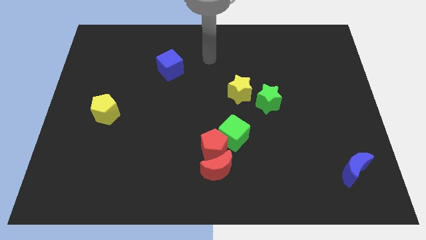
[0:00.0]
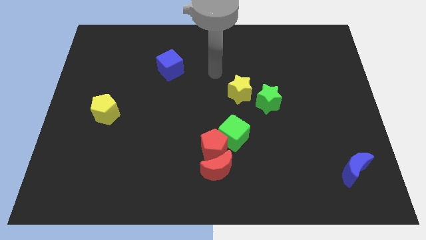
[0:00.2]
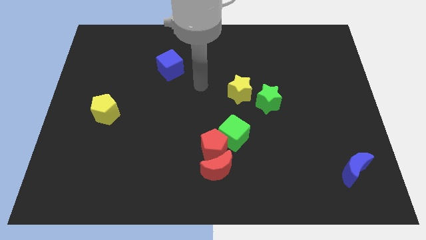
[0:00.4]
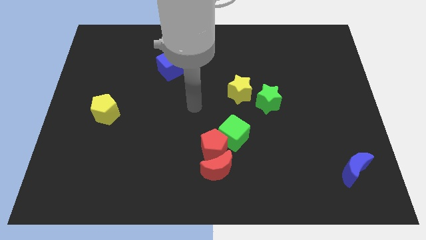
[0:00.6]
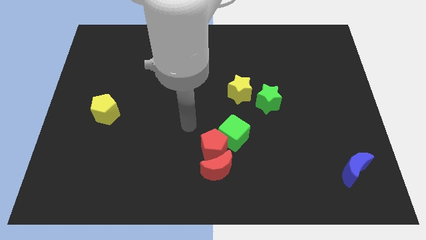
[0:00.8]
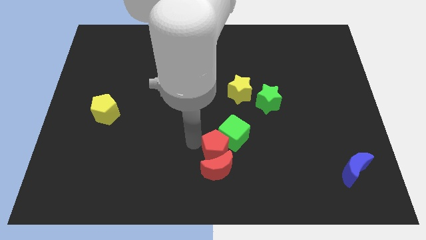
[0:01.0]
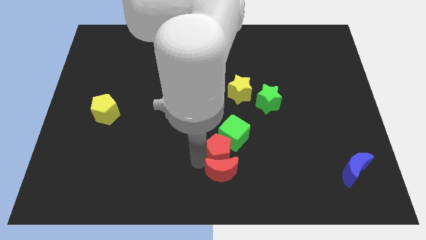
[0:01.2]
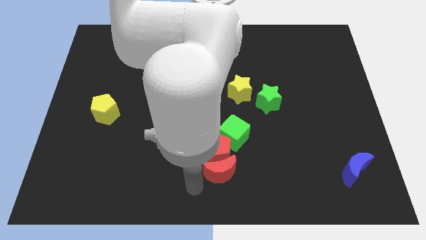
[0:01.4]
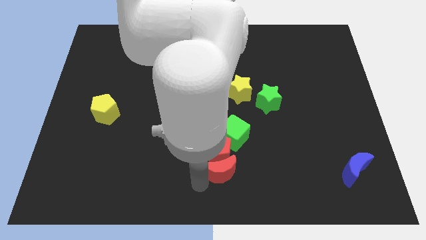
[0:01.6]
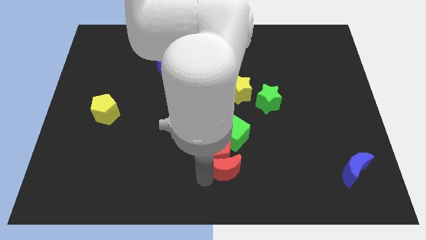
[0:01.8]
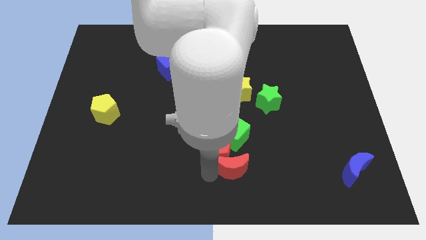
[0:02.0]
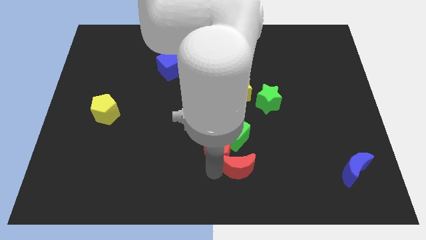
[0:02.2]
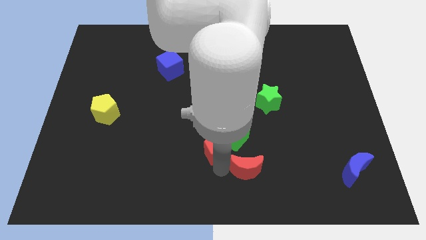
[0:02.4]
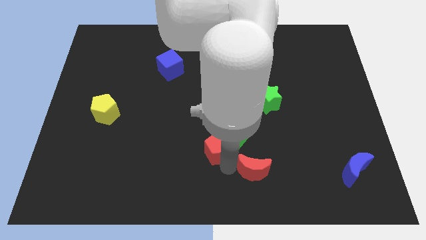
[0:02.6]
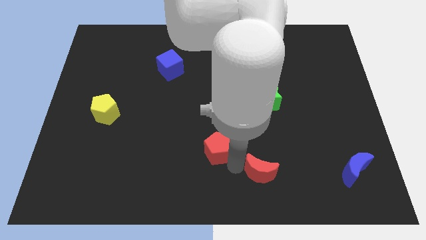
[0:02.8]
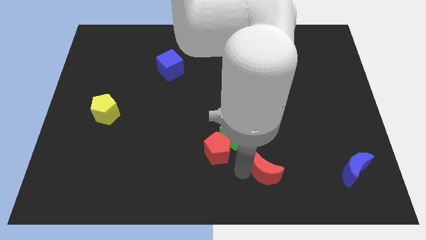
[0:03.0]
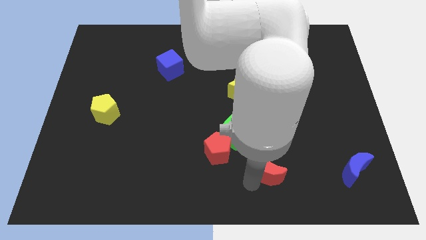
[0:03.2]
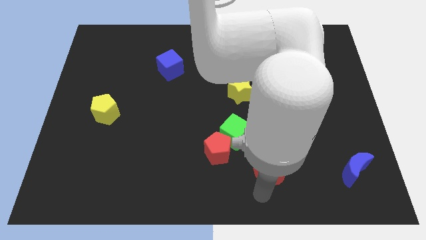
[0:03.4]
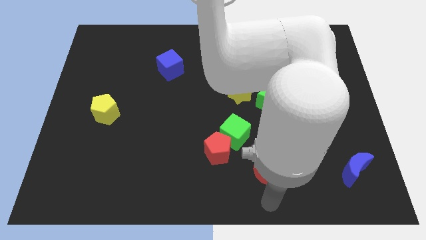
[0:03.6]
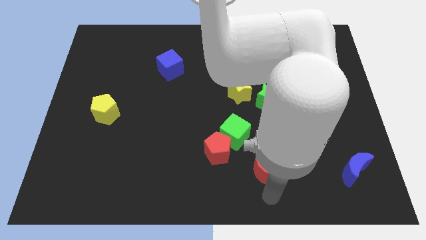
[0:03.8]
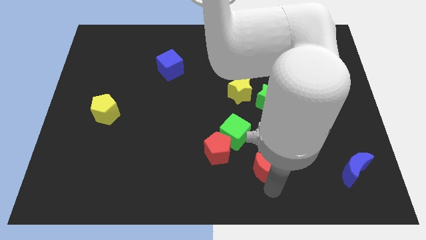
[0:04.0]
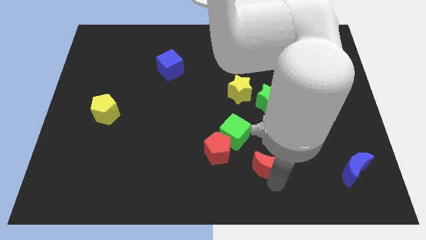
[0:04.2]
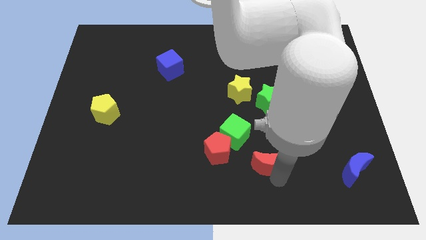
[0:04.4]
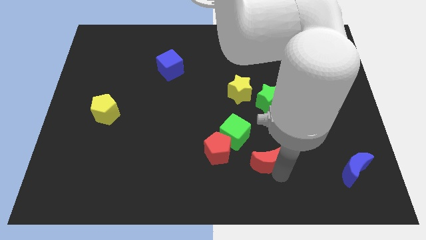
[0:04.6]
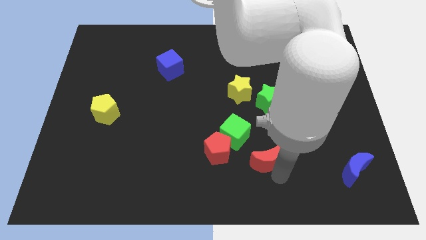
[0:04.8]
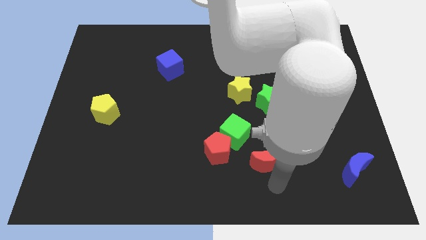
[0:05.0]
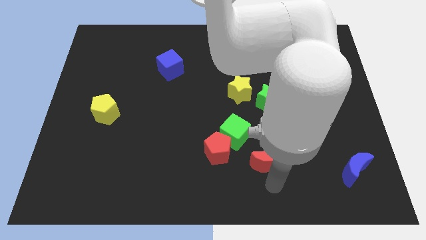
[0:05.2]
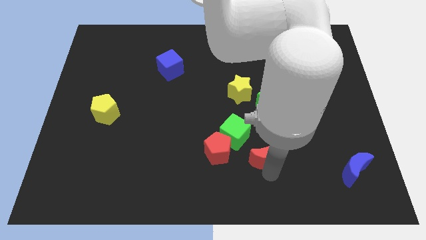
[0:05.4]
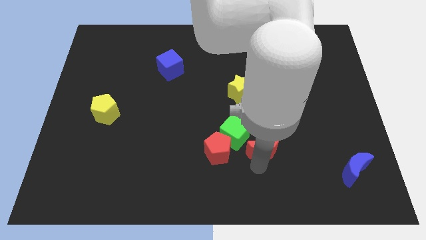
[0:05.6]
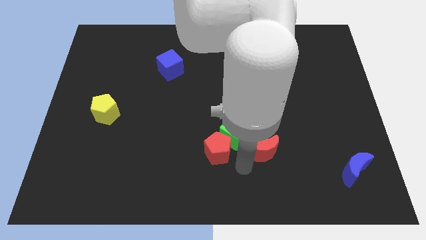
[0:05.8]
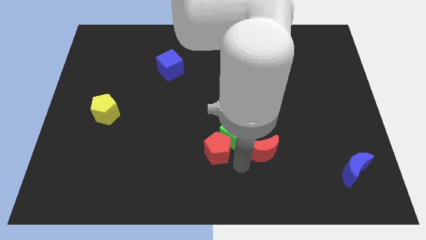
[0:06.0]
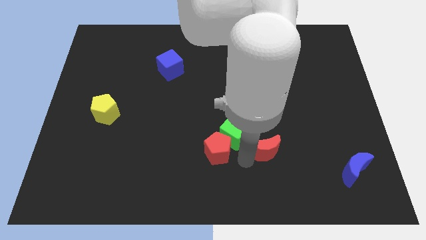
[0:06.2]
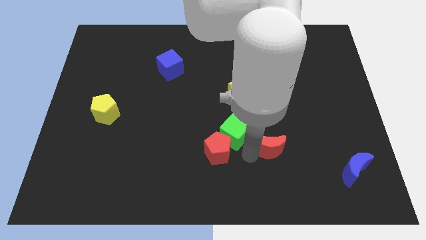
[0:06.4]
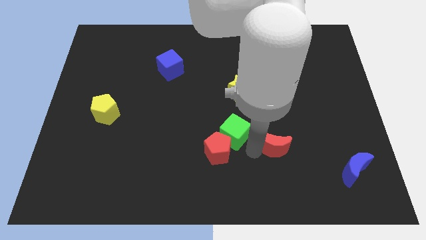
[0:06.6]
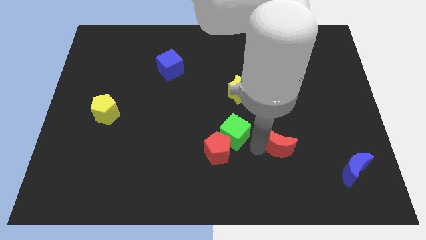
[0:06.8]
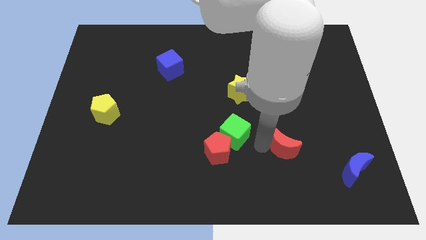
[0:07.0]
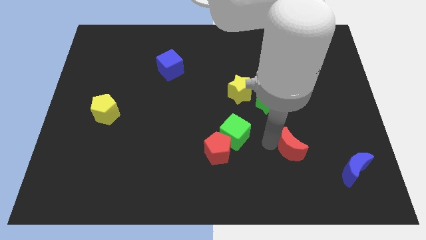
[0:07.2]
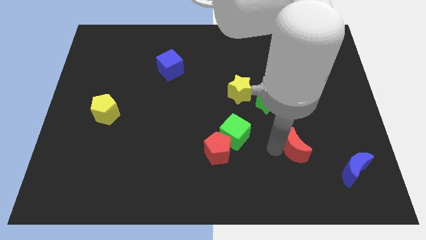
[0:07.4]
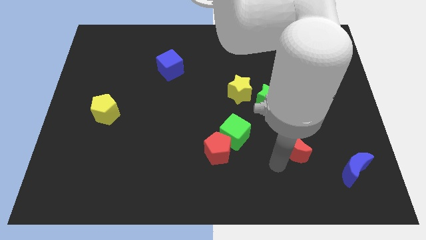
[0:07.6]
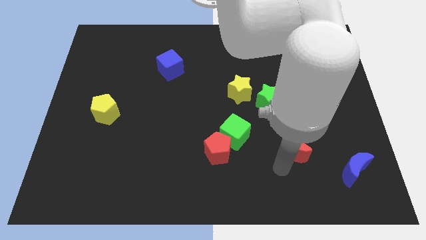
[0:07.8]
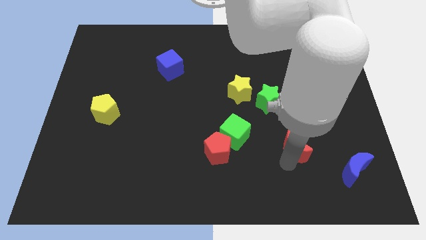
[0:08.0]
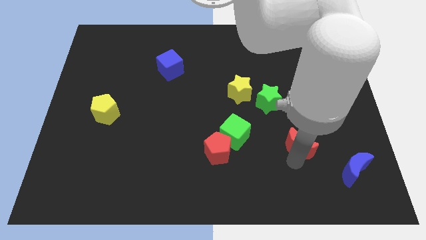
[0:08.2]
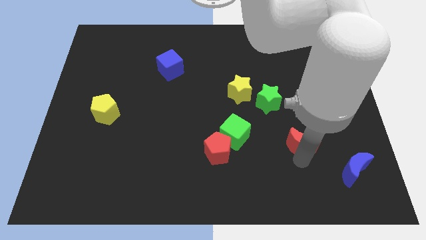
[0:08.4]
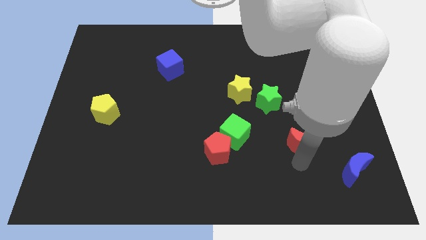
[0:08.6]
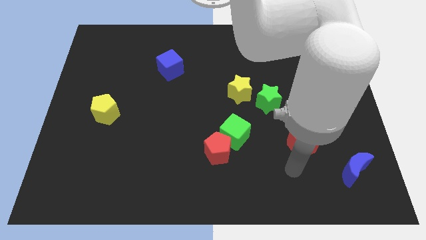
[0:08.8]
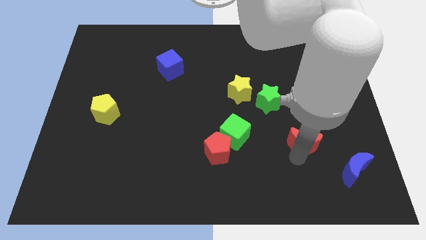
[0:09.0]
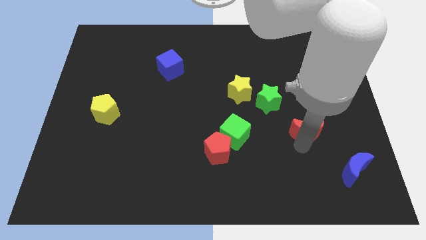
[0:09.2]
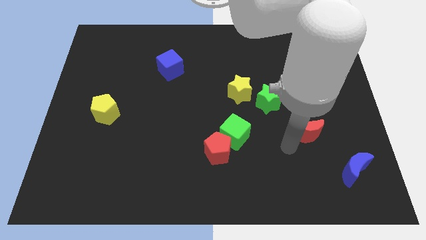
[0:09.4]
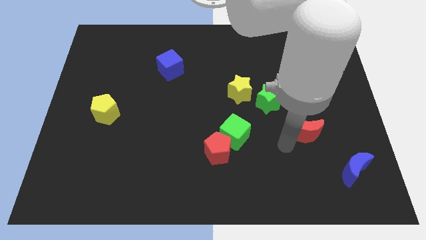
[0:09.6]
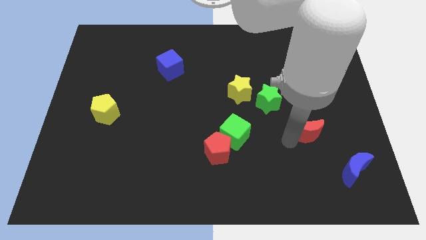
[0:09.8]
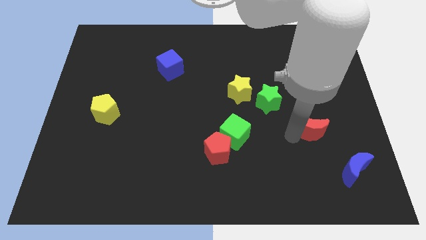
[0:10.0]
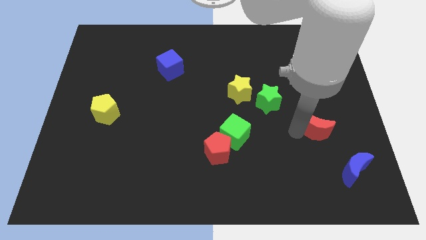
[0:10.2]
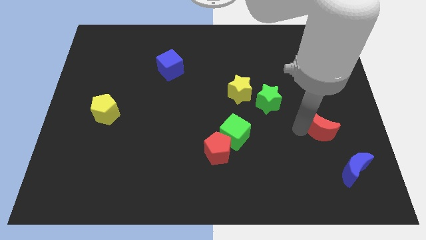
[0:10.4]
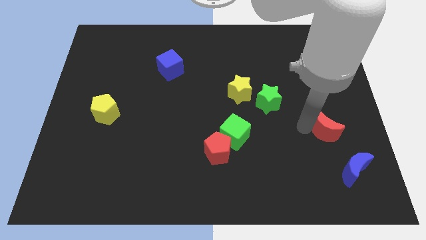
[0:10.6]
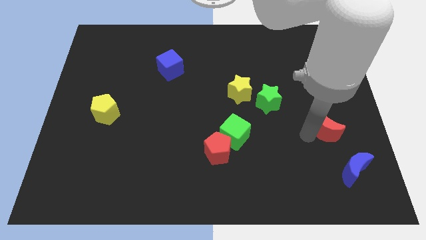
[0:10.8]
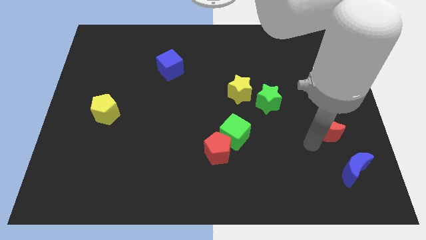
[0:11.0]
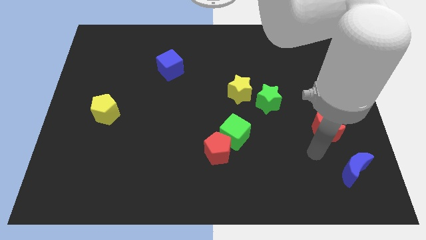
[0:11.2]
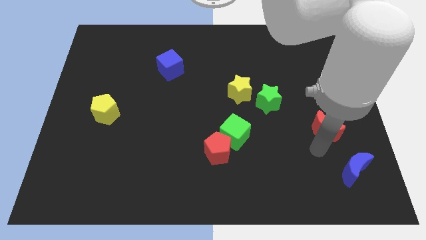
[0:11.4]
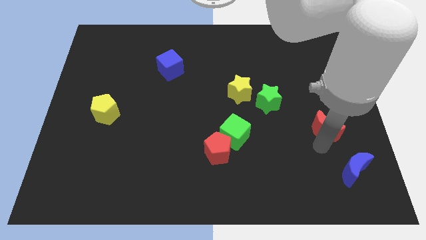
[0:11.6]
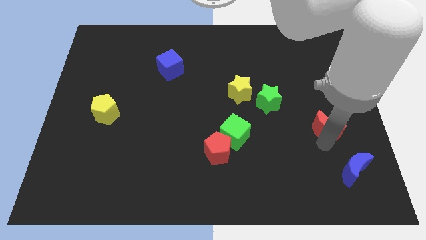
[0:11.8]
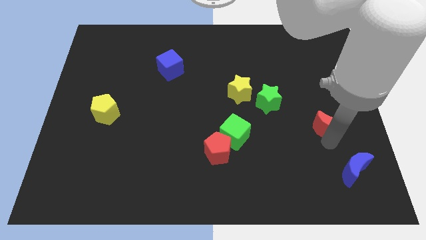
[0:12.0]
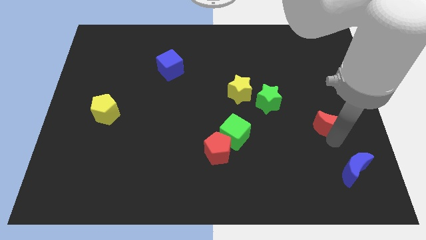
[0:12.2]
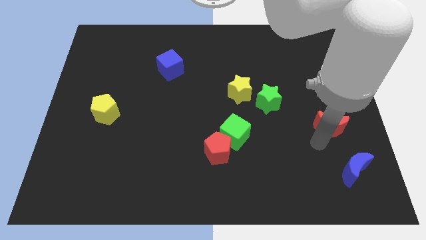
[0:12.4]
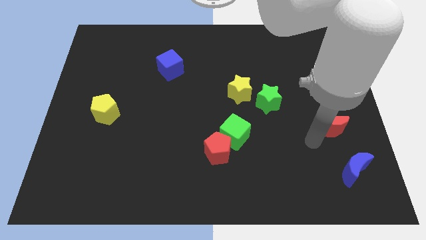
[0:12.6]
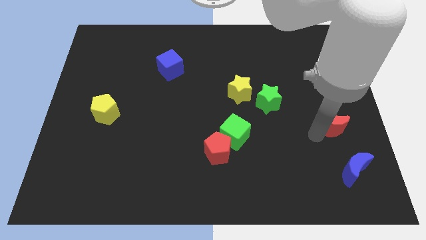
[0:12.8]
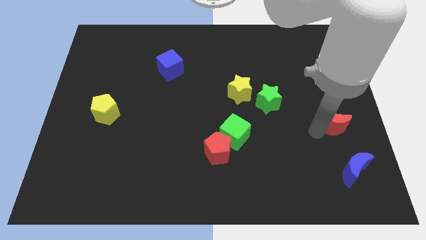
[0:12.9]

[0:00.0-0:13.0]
move the red moon to the center right

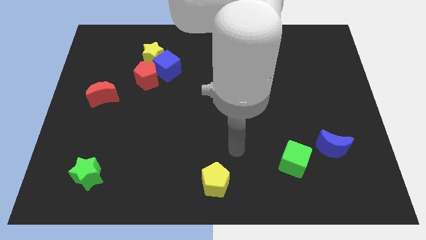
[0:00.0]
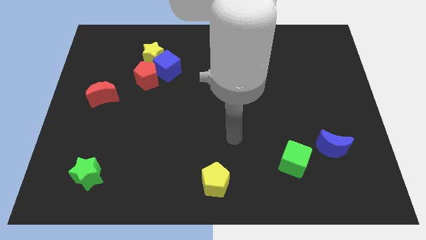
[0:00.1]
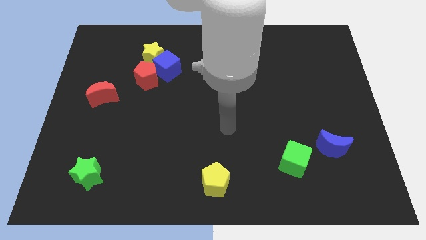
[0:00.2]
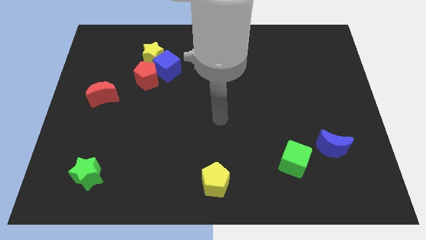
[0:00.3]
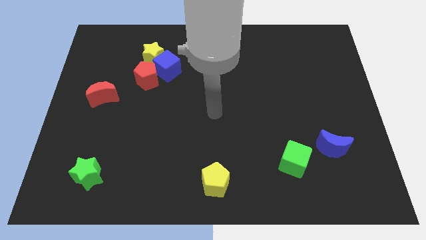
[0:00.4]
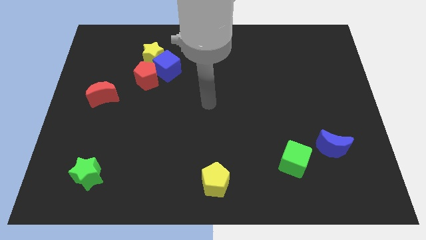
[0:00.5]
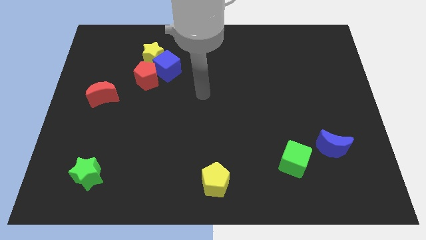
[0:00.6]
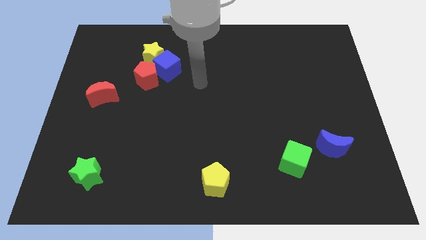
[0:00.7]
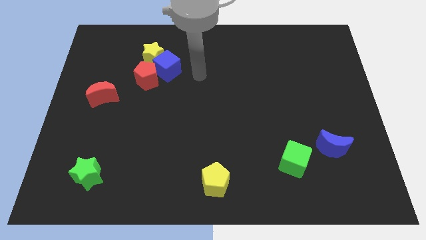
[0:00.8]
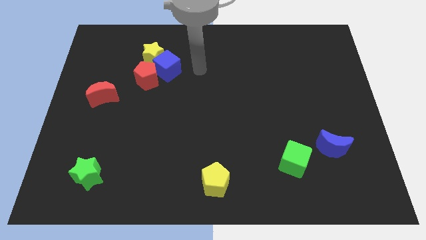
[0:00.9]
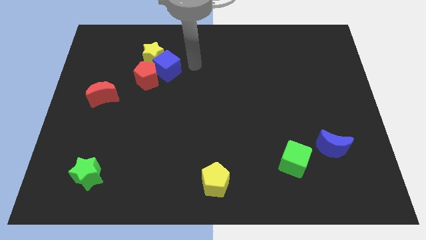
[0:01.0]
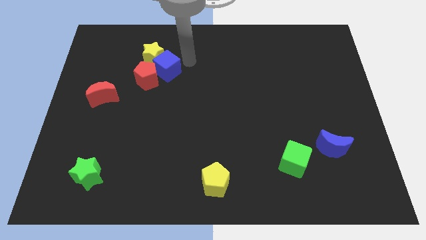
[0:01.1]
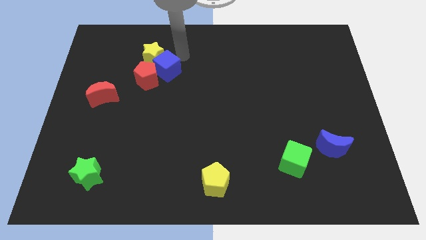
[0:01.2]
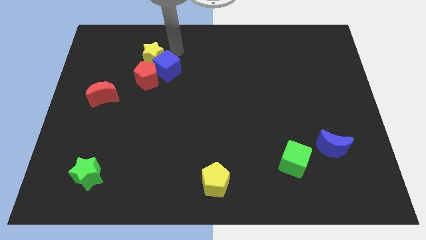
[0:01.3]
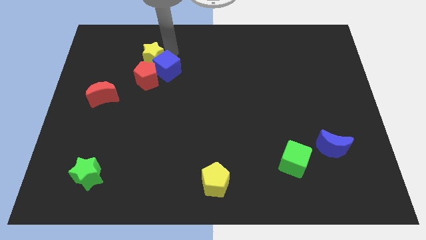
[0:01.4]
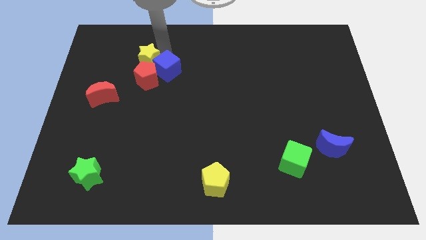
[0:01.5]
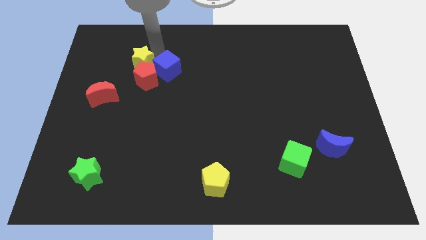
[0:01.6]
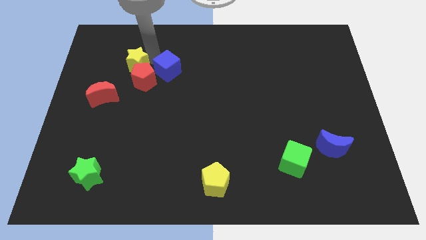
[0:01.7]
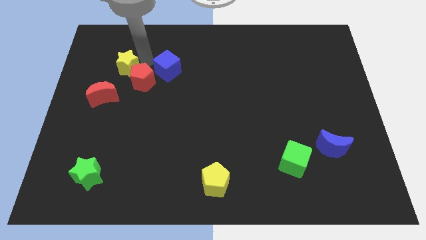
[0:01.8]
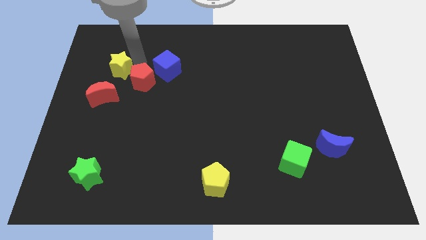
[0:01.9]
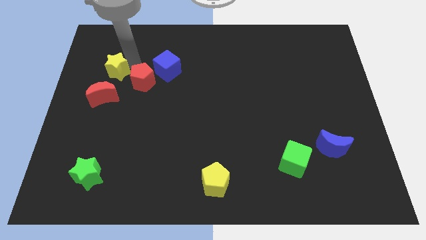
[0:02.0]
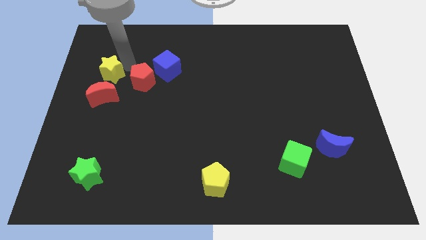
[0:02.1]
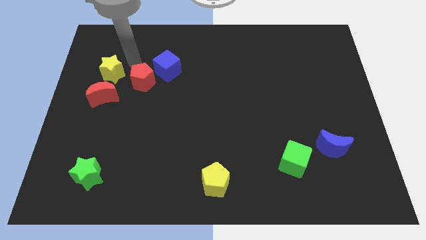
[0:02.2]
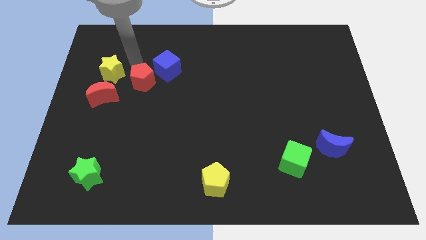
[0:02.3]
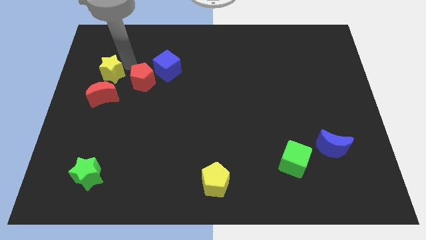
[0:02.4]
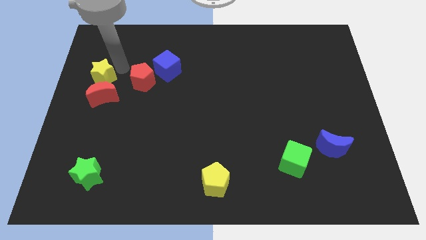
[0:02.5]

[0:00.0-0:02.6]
move the yellow star to the center left
